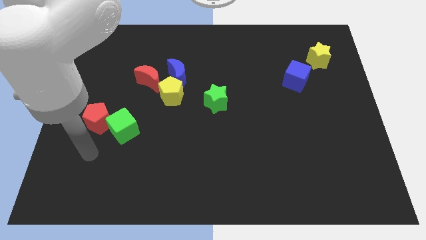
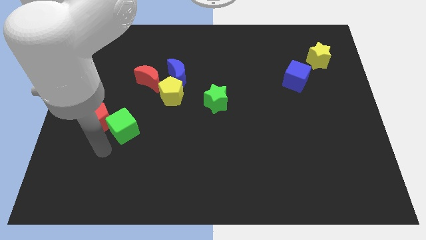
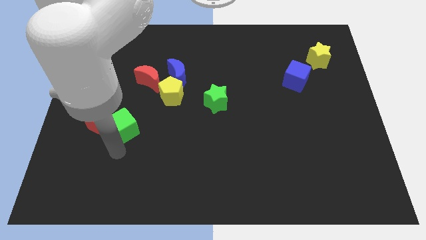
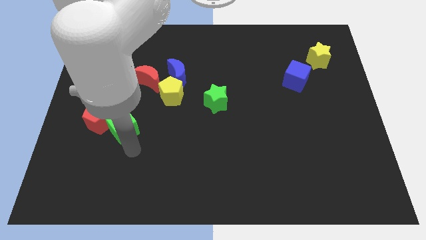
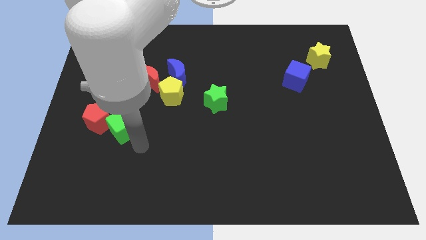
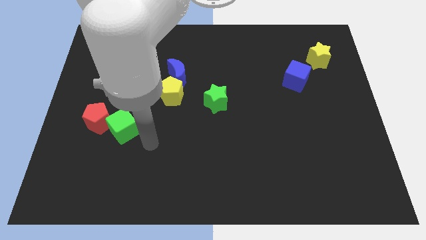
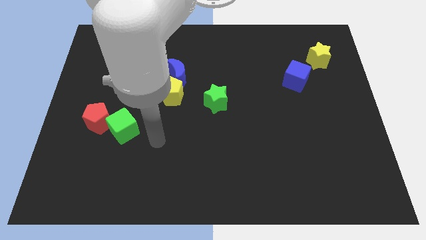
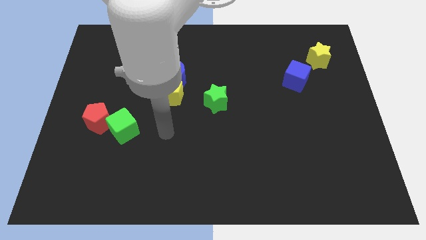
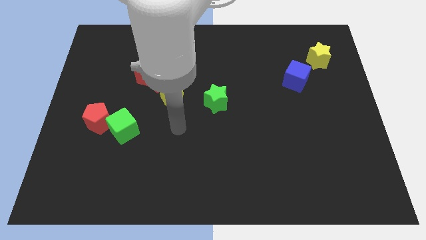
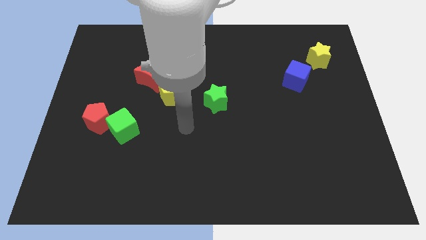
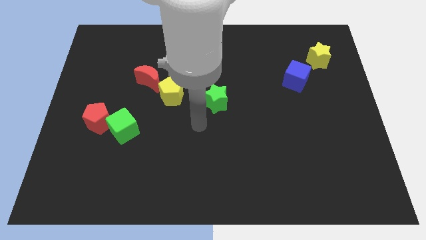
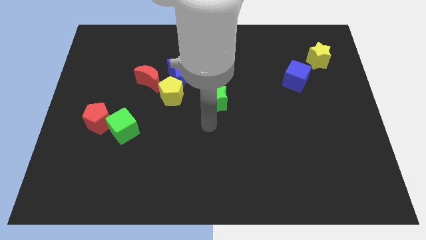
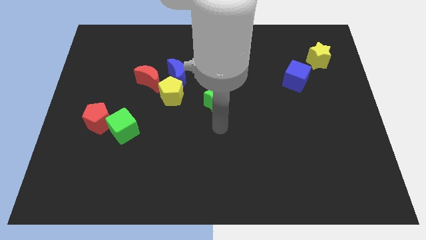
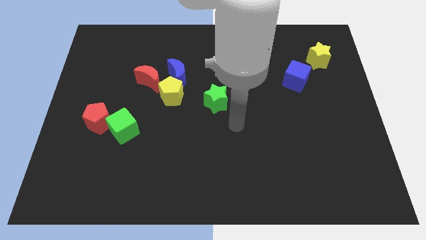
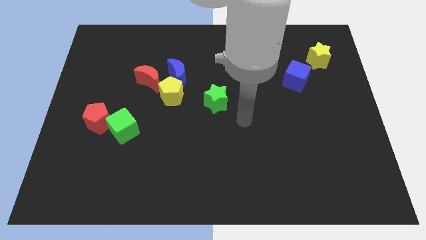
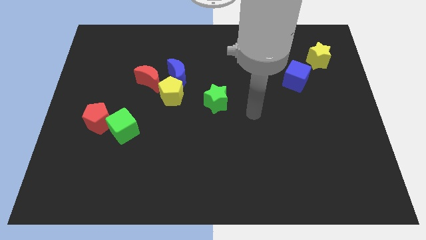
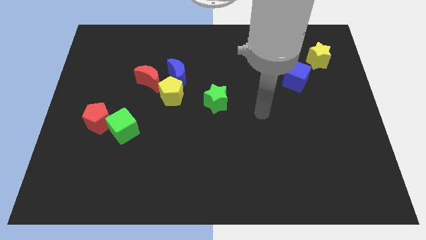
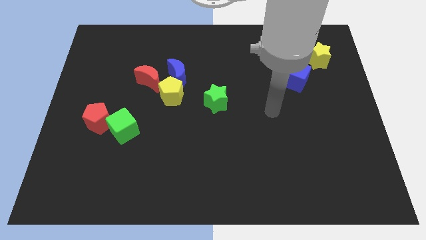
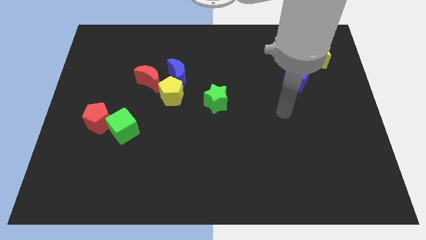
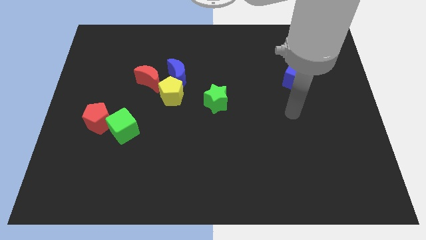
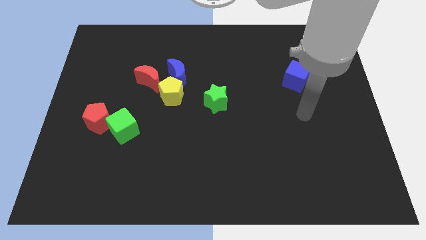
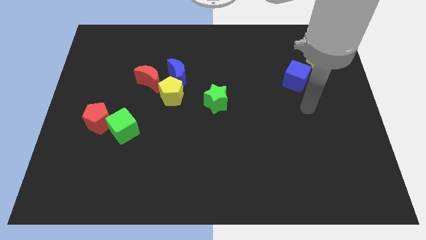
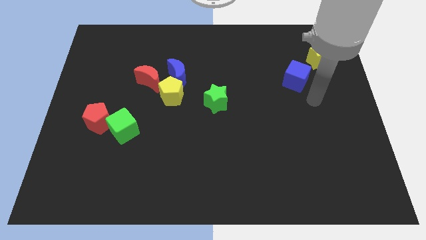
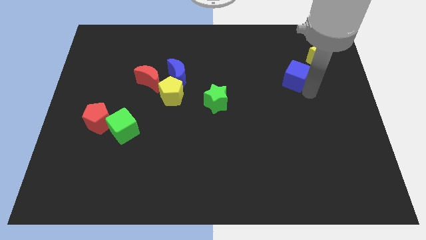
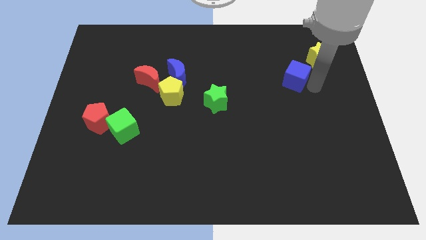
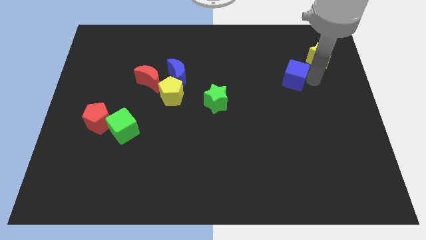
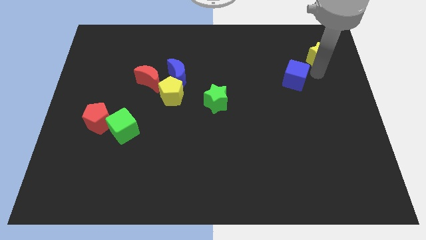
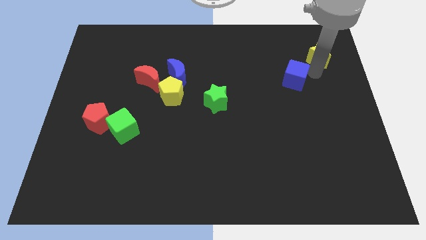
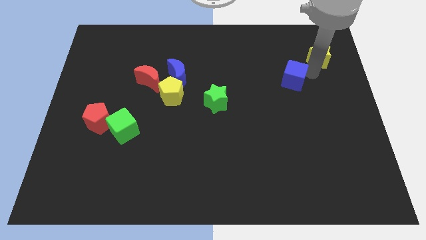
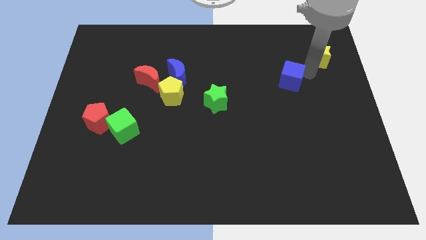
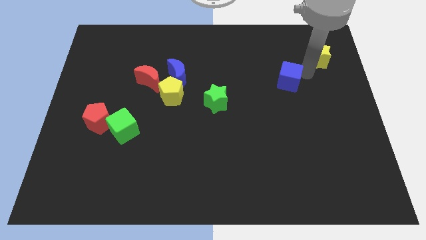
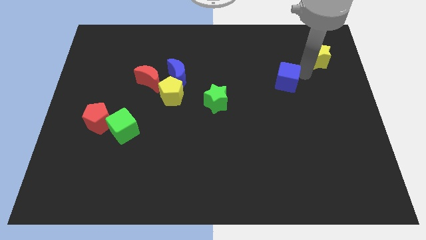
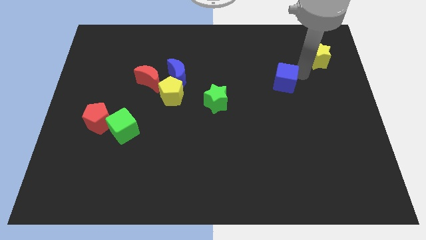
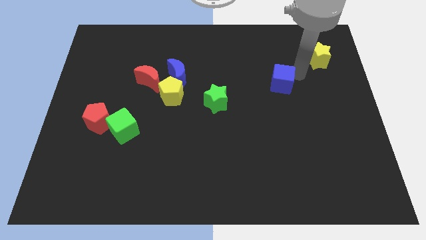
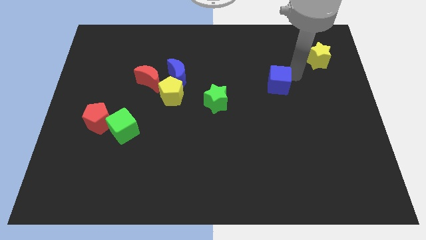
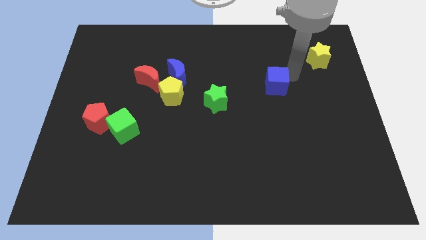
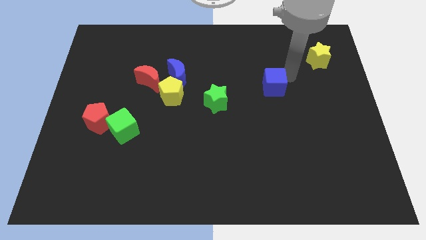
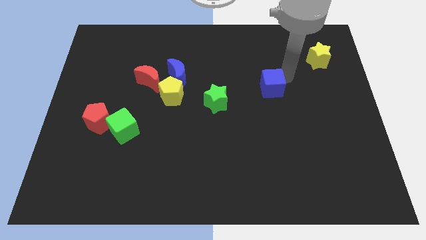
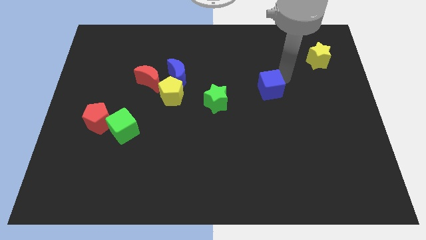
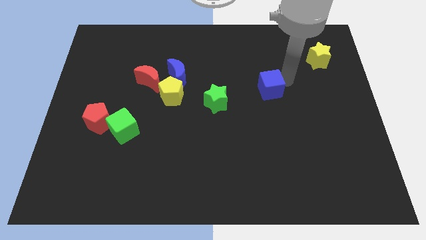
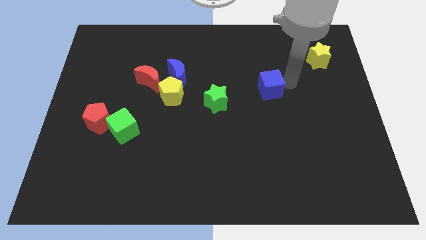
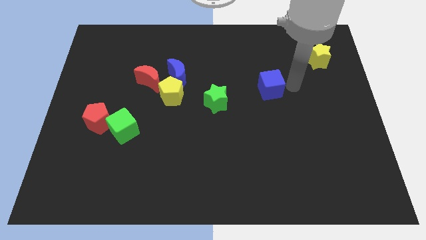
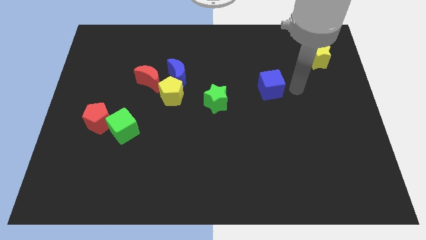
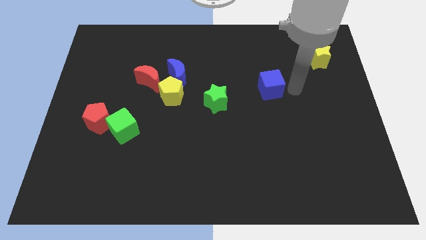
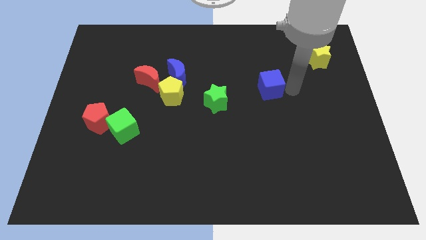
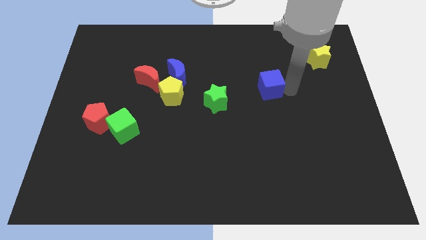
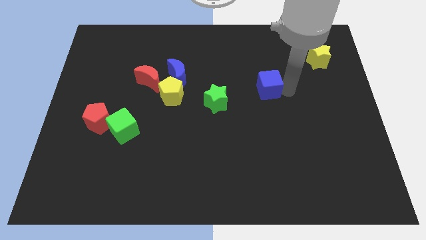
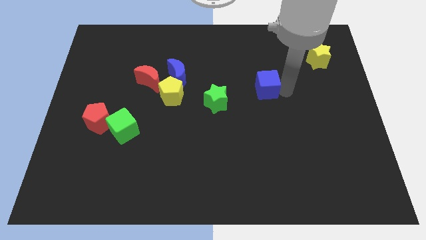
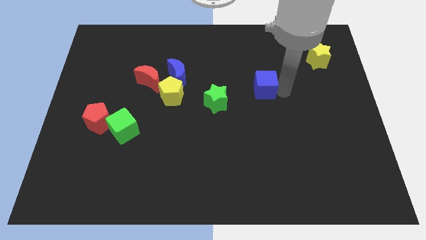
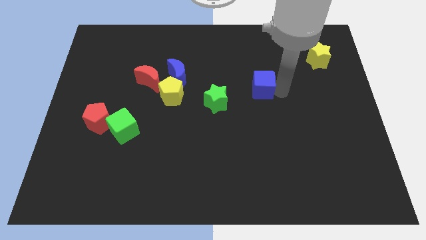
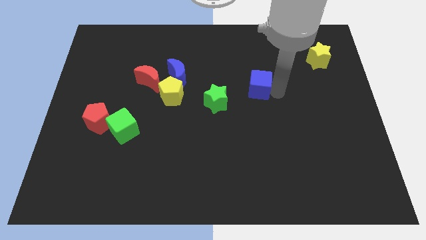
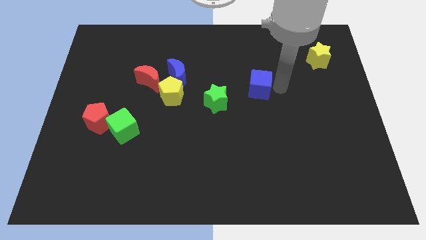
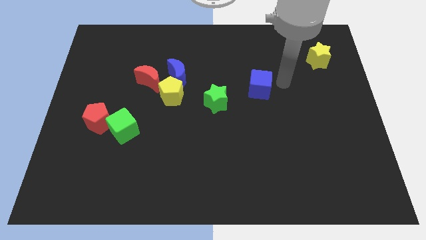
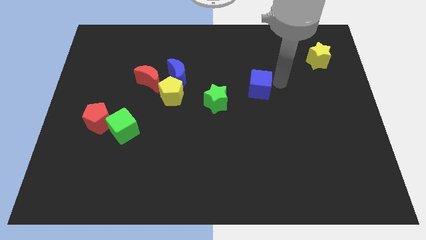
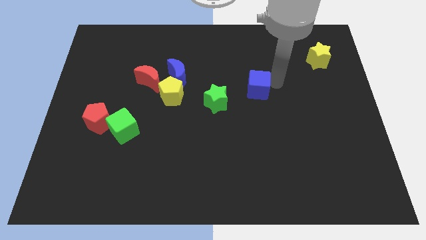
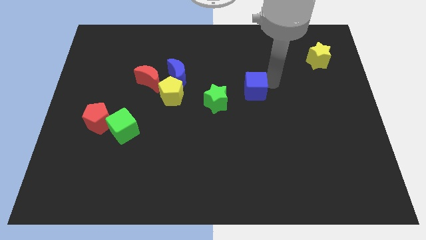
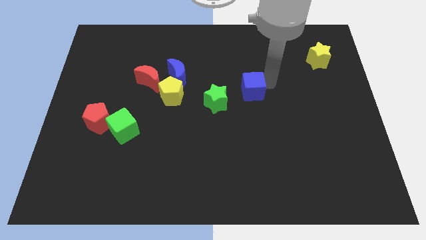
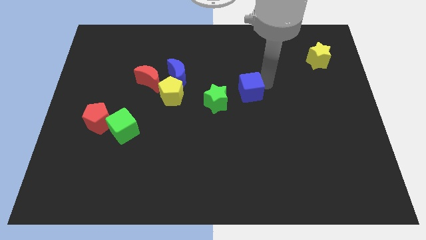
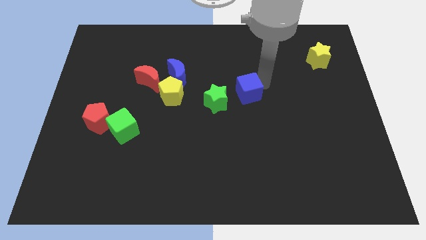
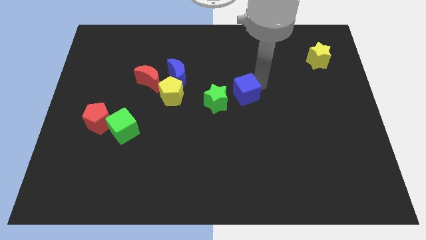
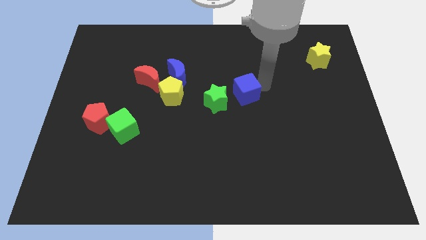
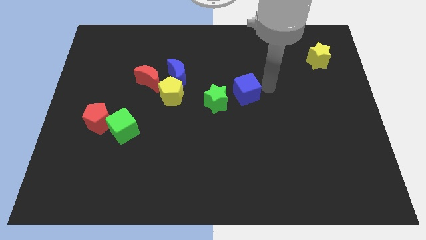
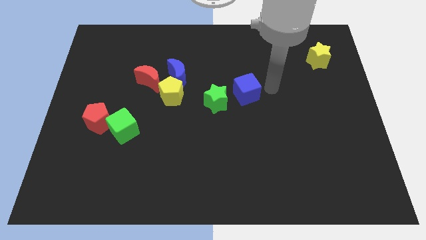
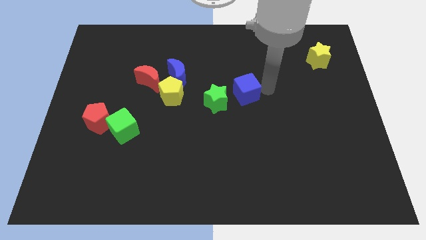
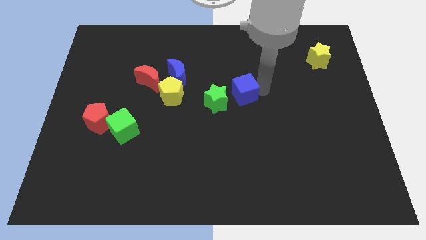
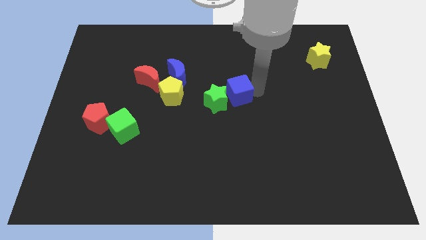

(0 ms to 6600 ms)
move the blue cube next to the green star

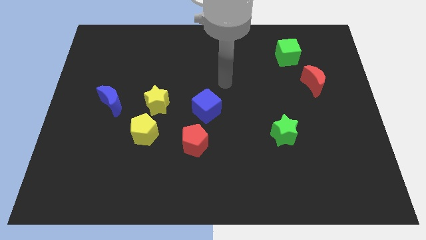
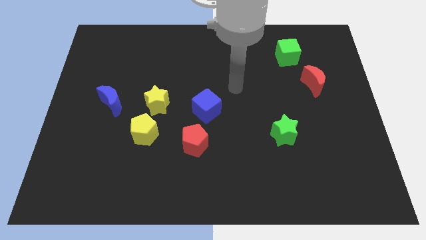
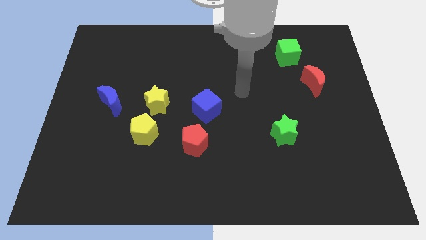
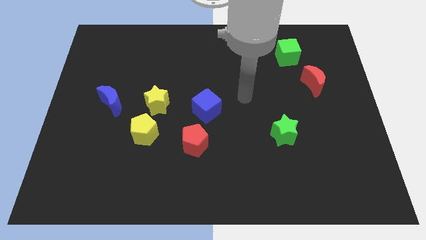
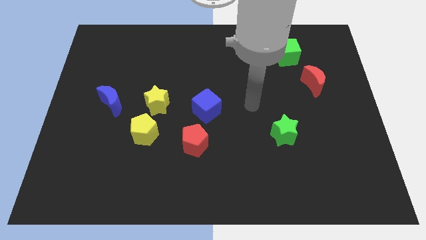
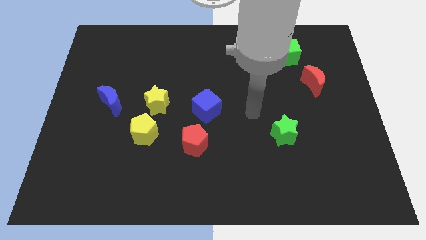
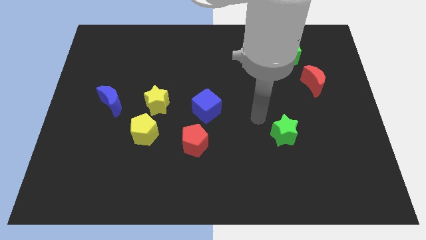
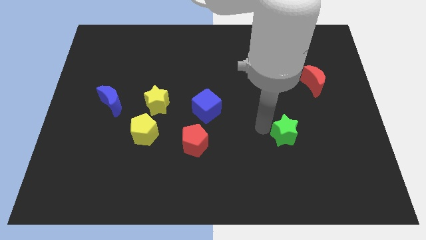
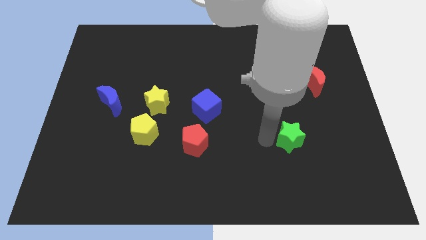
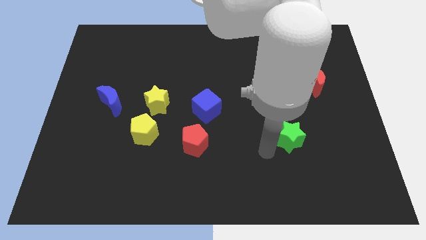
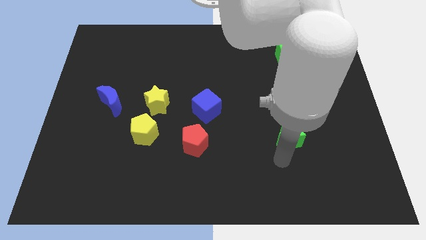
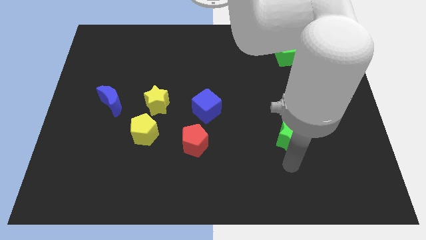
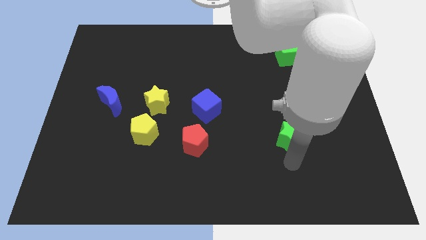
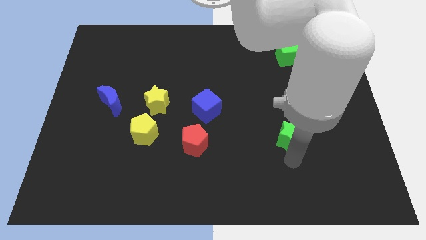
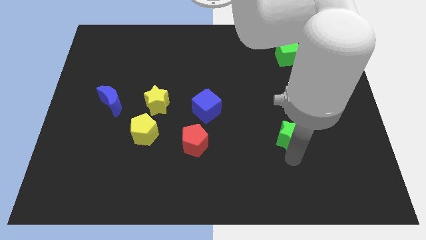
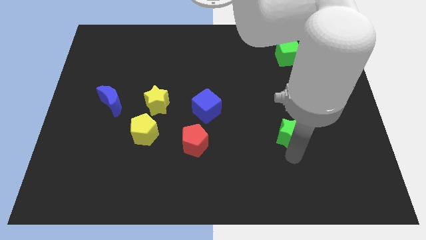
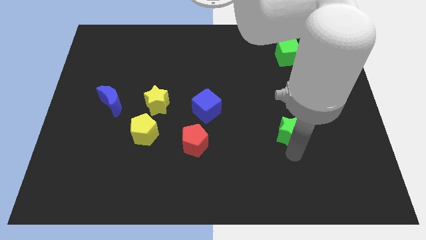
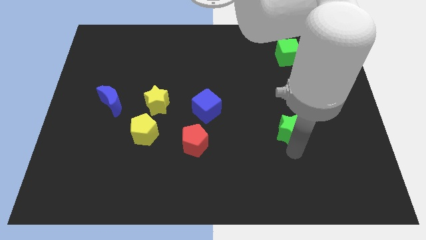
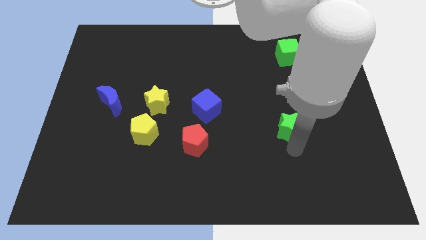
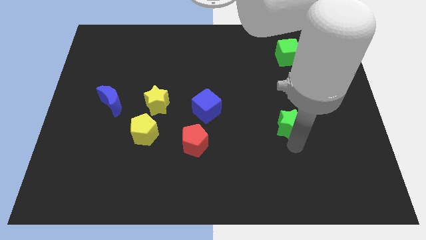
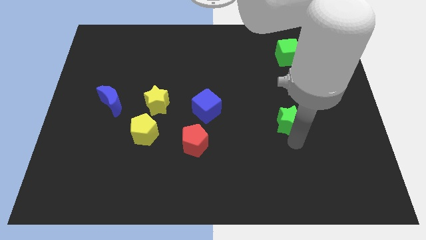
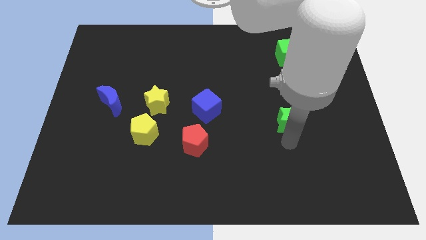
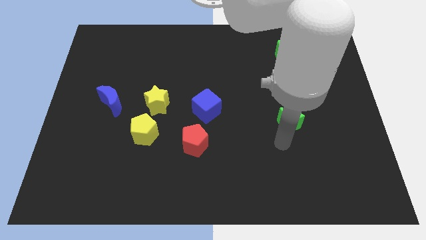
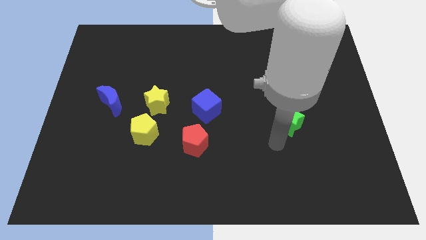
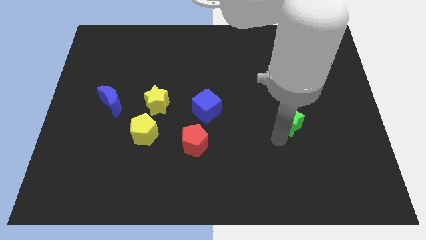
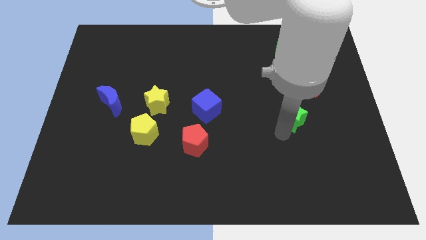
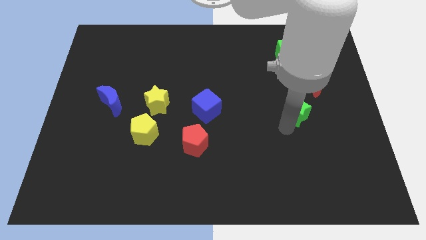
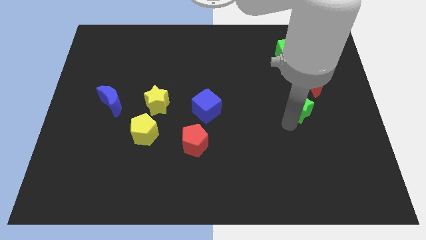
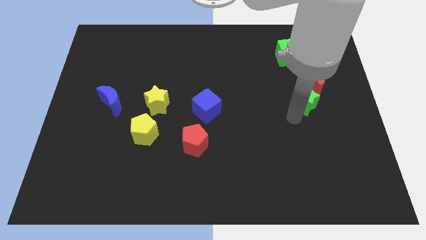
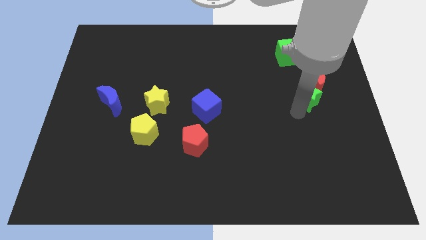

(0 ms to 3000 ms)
put the green star next to the red moon
